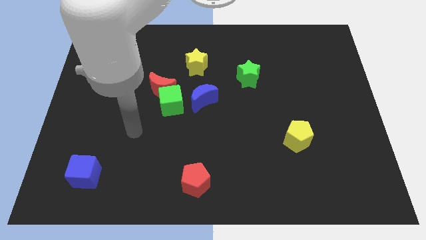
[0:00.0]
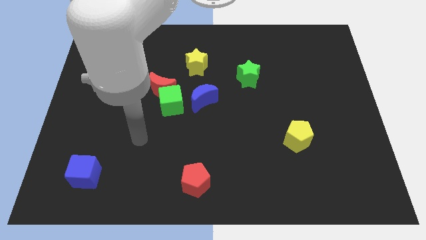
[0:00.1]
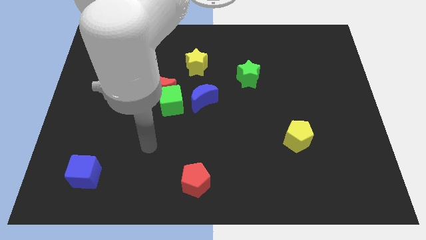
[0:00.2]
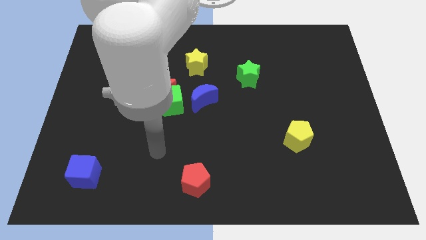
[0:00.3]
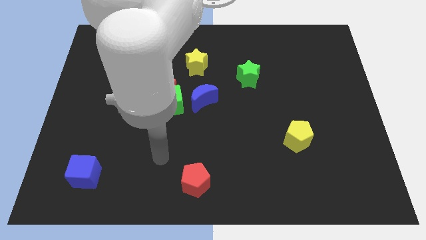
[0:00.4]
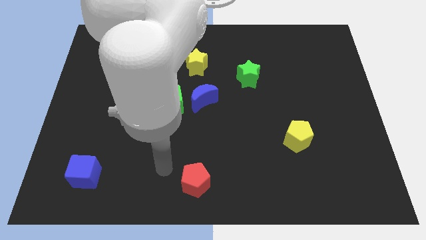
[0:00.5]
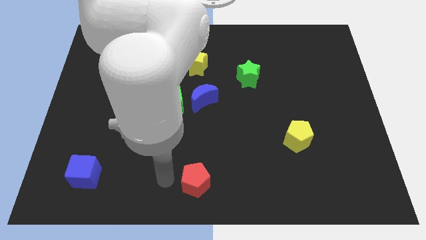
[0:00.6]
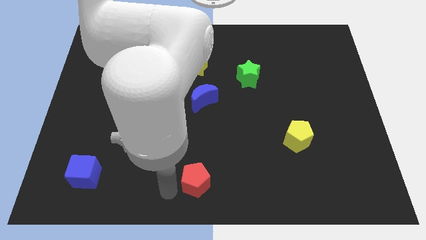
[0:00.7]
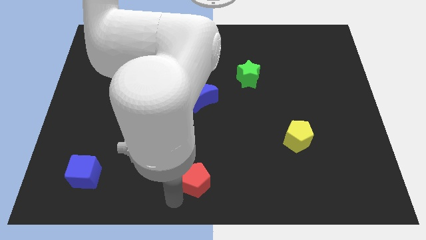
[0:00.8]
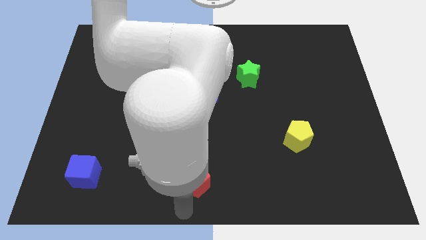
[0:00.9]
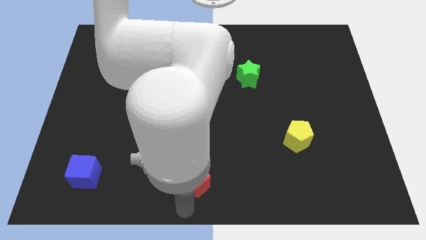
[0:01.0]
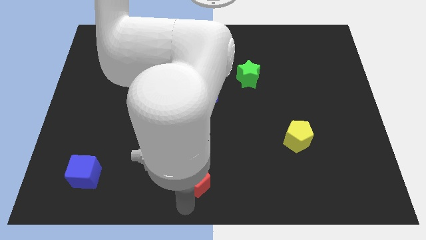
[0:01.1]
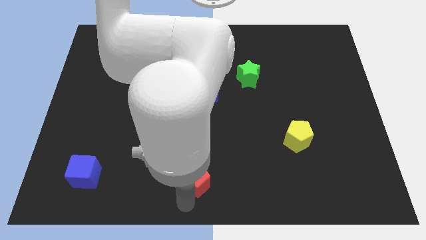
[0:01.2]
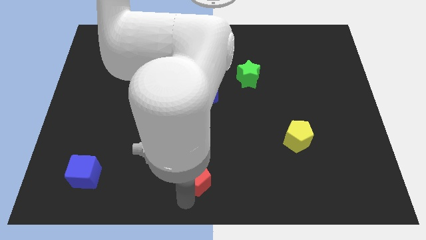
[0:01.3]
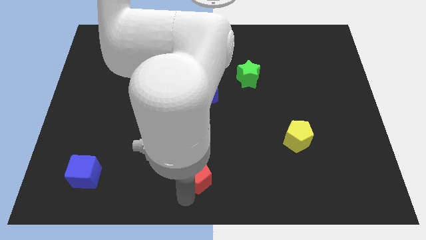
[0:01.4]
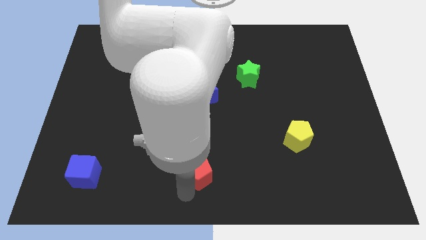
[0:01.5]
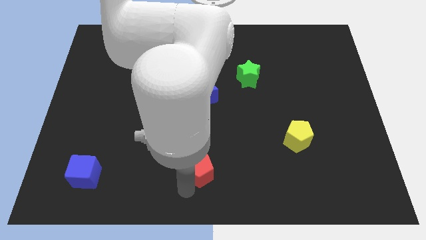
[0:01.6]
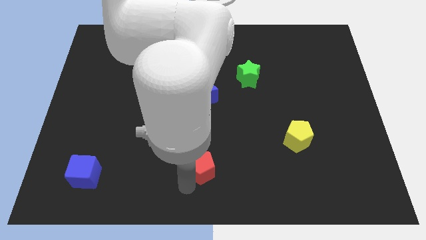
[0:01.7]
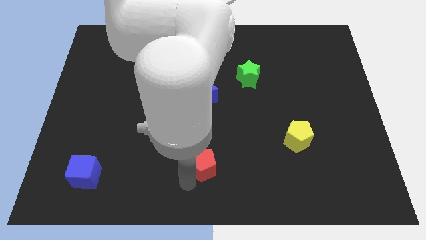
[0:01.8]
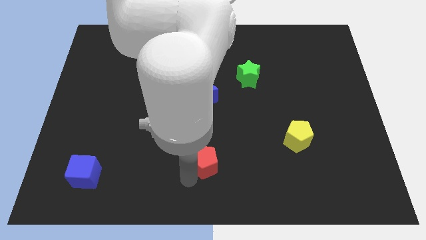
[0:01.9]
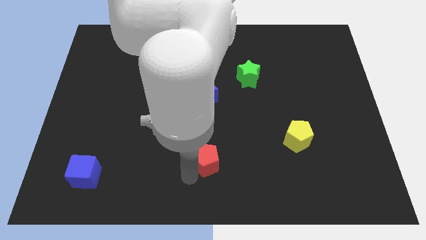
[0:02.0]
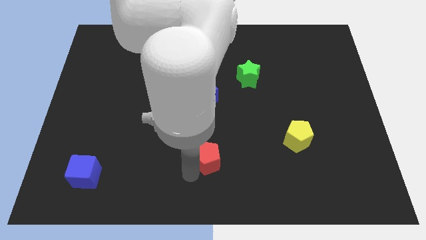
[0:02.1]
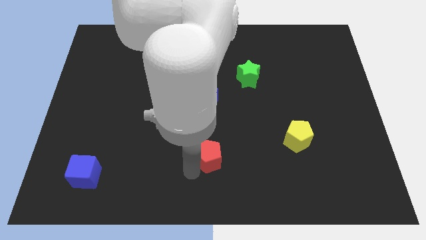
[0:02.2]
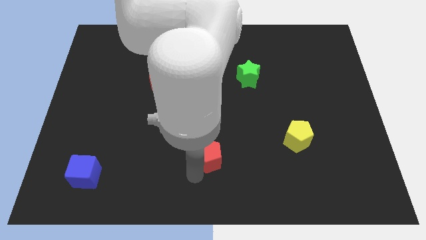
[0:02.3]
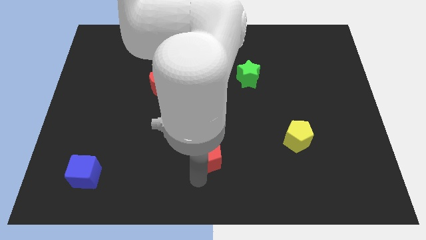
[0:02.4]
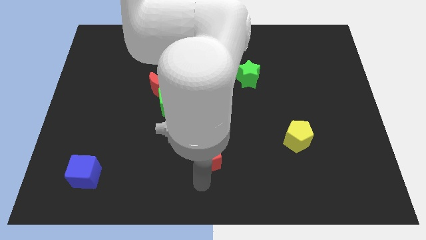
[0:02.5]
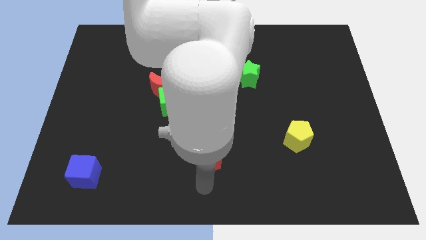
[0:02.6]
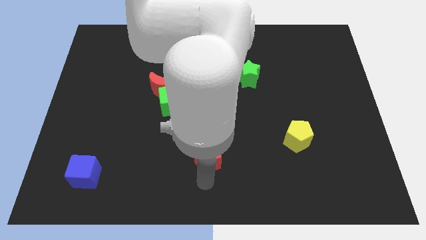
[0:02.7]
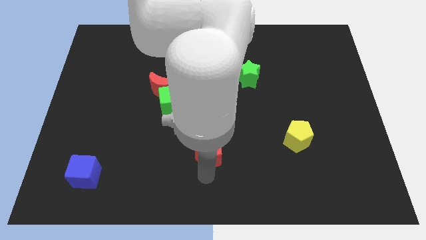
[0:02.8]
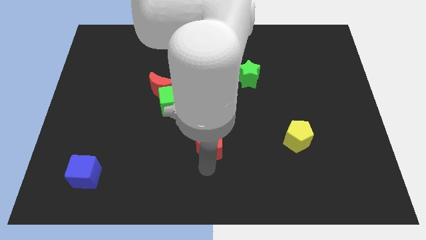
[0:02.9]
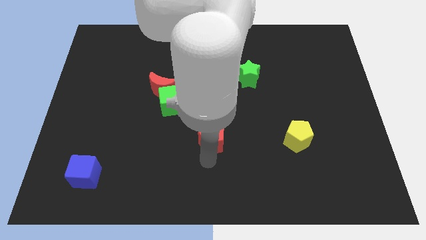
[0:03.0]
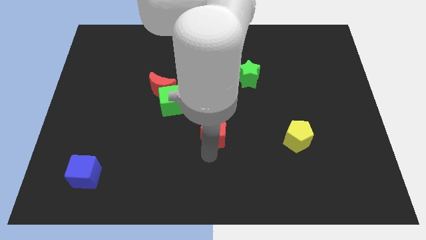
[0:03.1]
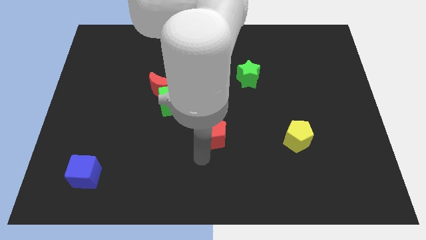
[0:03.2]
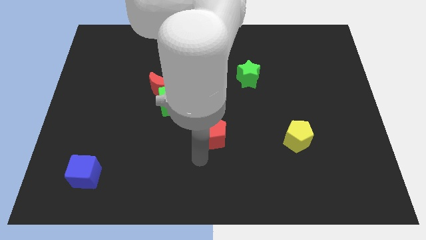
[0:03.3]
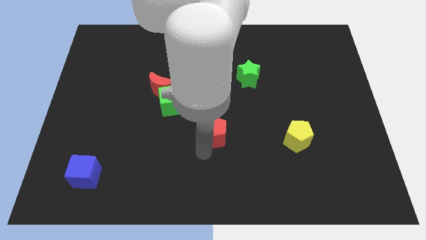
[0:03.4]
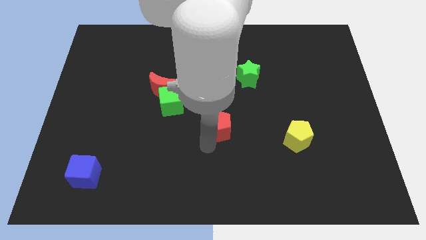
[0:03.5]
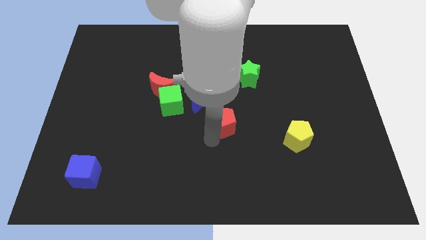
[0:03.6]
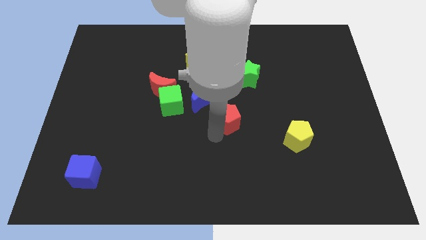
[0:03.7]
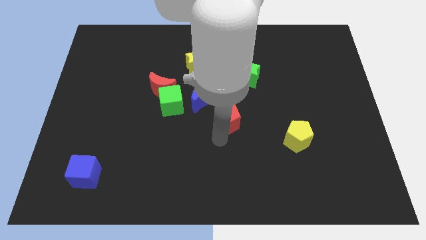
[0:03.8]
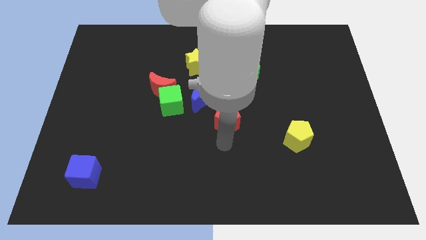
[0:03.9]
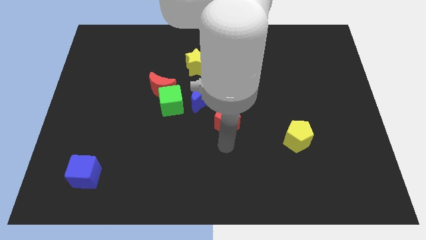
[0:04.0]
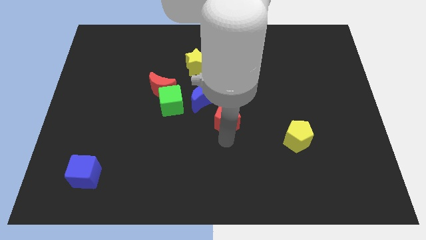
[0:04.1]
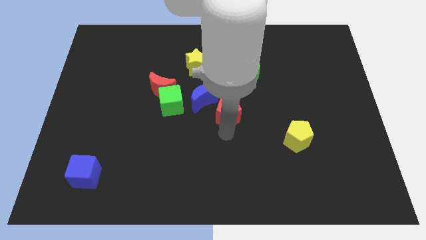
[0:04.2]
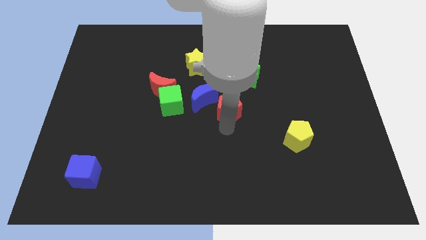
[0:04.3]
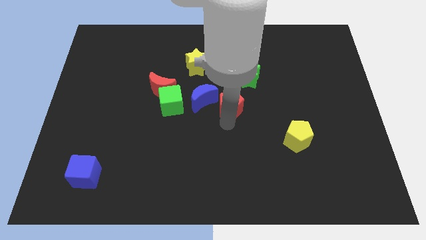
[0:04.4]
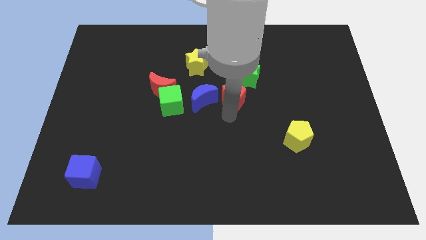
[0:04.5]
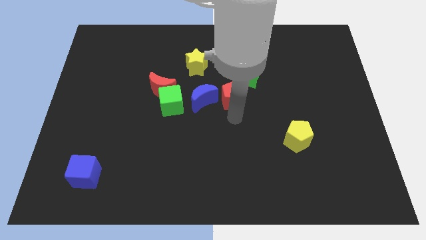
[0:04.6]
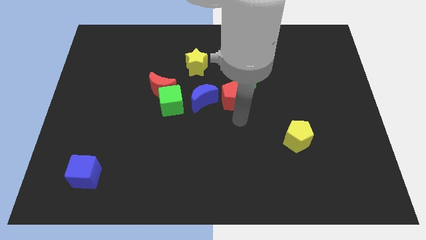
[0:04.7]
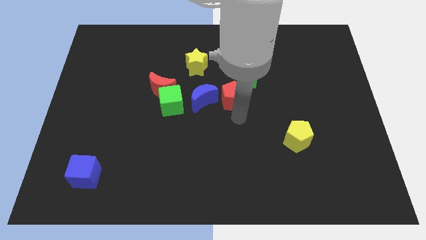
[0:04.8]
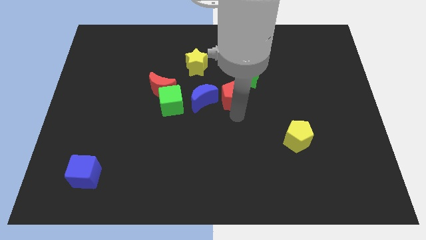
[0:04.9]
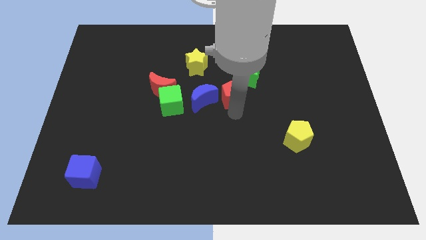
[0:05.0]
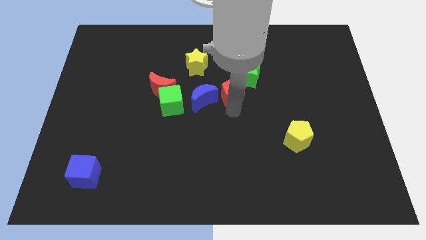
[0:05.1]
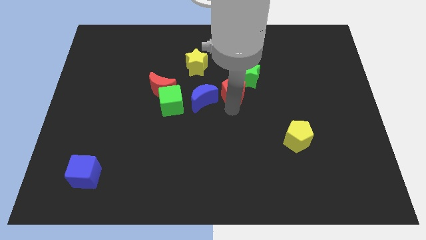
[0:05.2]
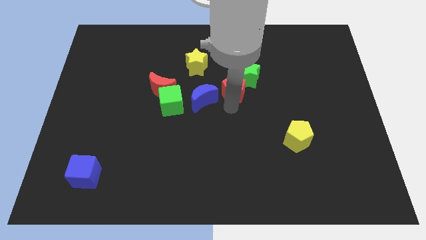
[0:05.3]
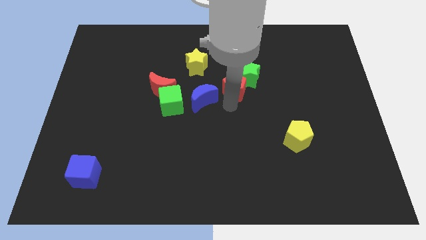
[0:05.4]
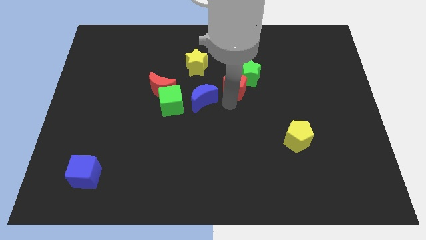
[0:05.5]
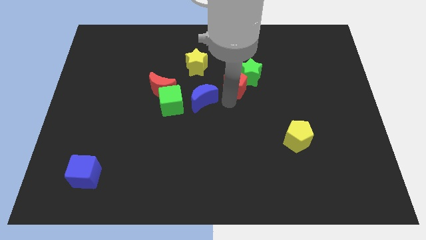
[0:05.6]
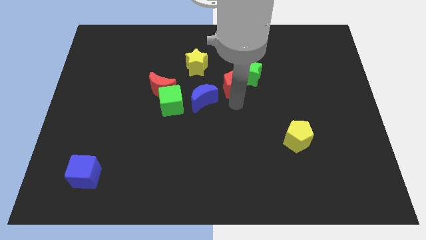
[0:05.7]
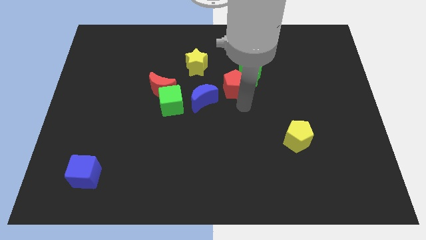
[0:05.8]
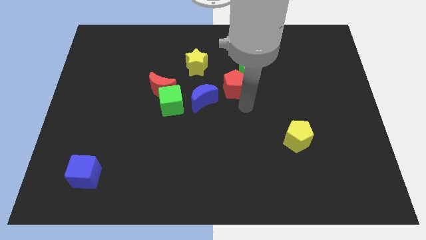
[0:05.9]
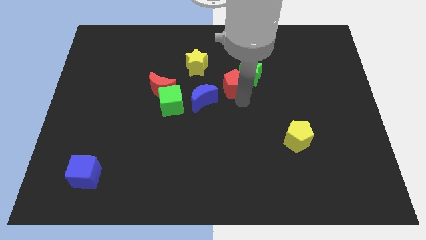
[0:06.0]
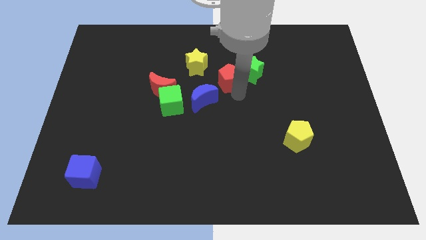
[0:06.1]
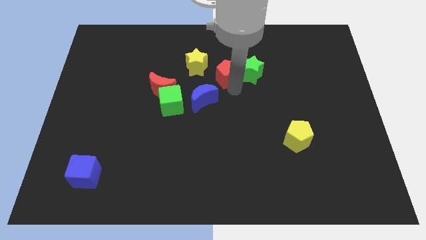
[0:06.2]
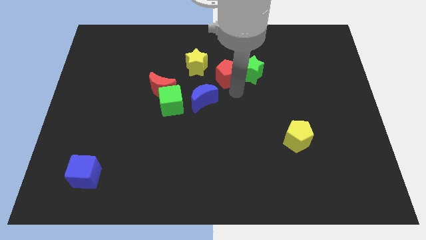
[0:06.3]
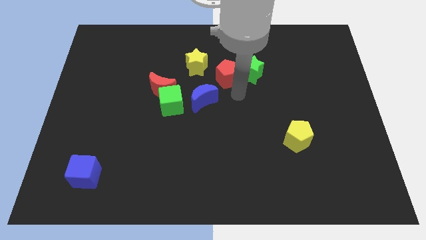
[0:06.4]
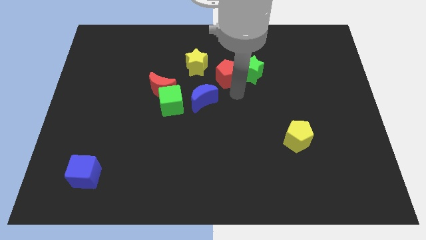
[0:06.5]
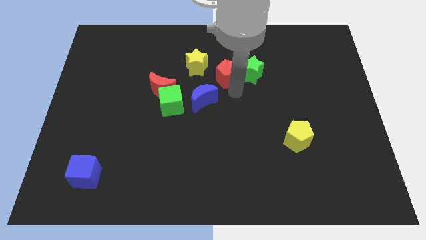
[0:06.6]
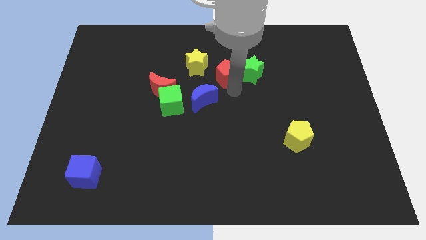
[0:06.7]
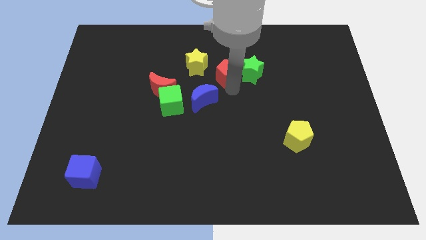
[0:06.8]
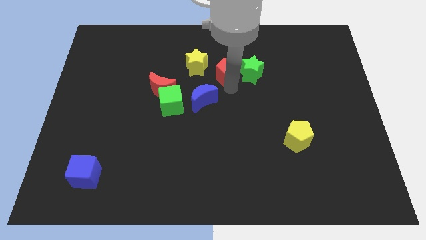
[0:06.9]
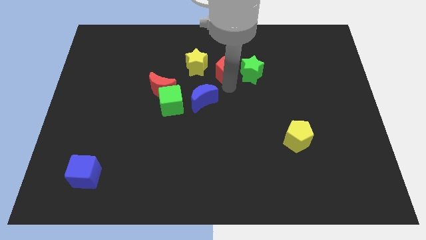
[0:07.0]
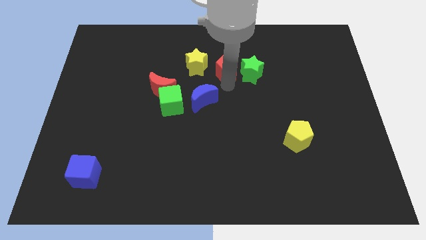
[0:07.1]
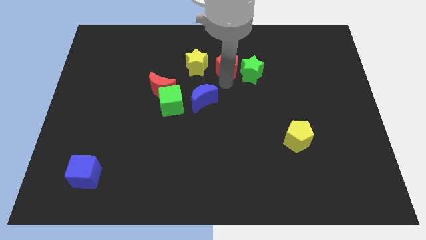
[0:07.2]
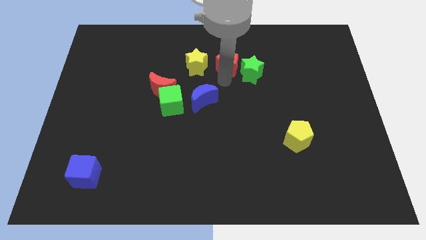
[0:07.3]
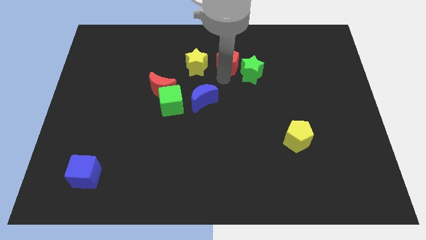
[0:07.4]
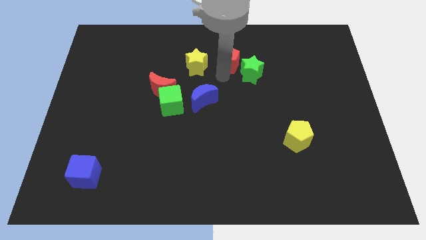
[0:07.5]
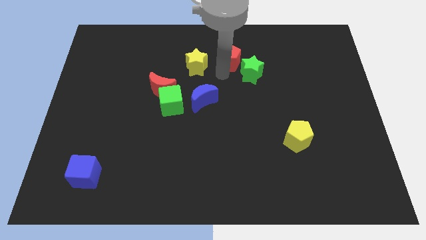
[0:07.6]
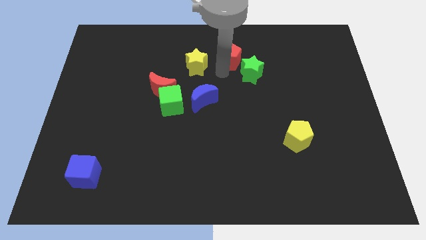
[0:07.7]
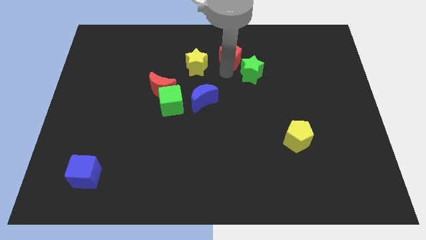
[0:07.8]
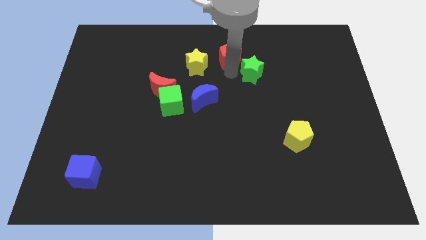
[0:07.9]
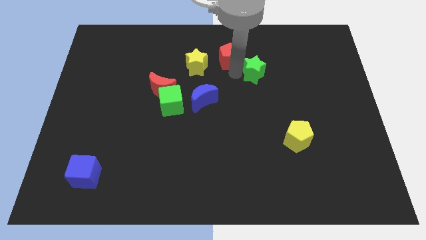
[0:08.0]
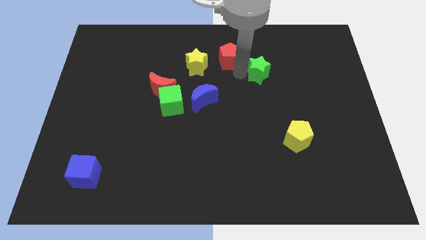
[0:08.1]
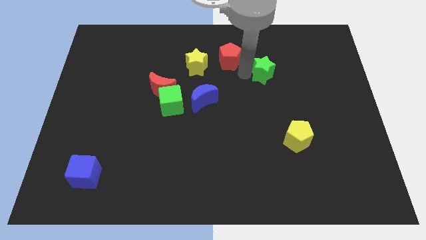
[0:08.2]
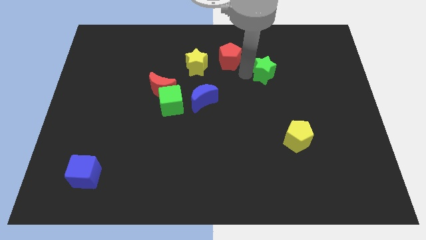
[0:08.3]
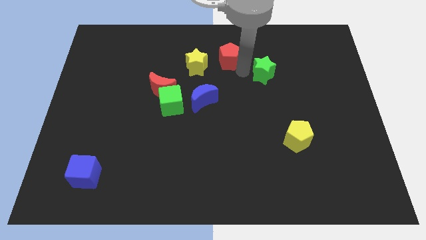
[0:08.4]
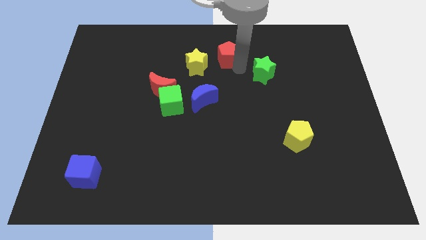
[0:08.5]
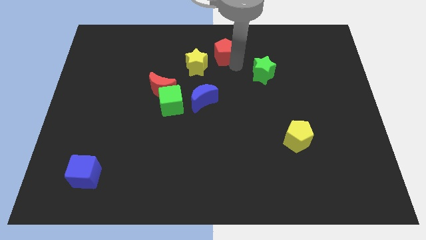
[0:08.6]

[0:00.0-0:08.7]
slide the red pentagon to the top
